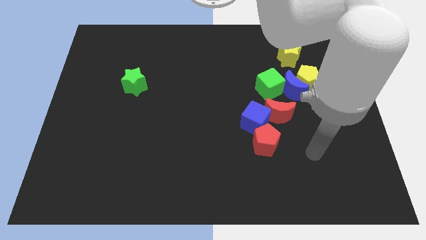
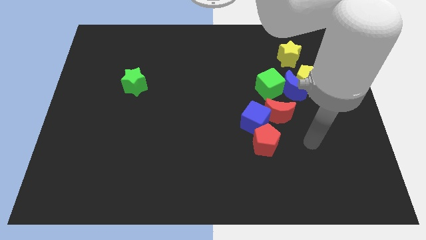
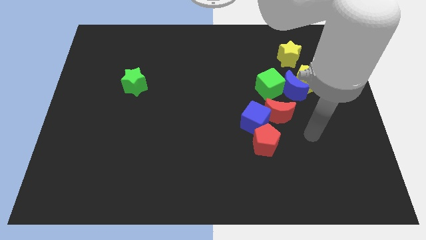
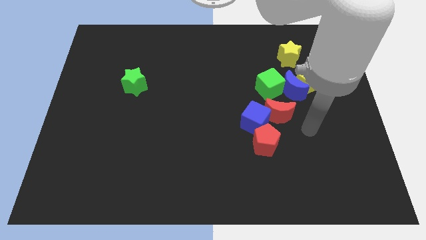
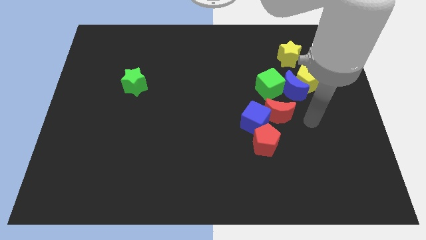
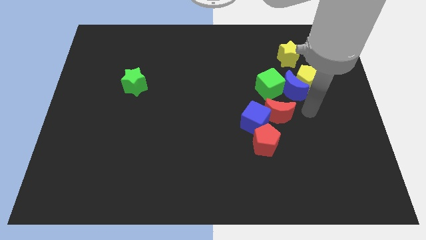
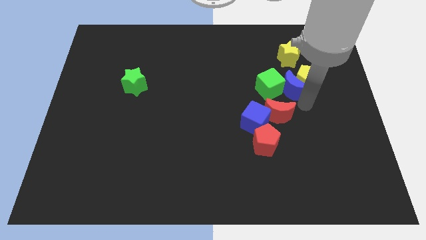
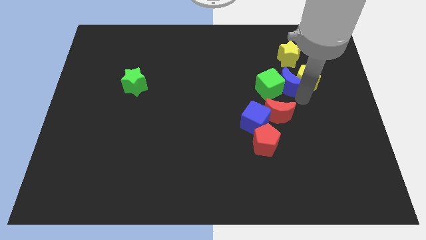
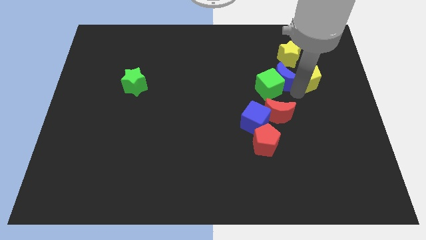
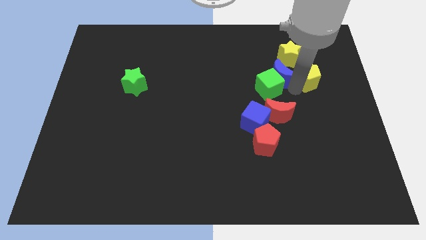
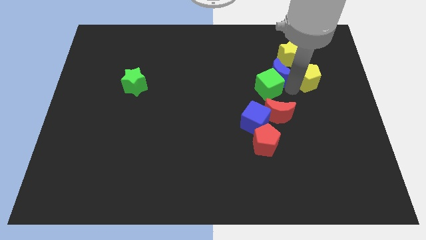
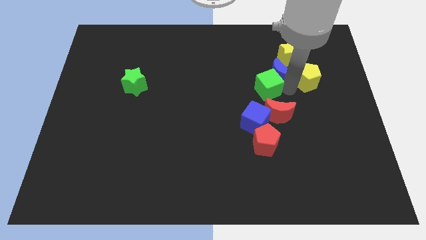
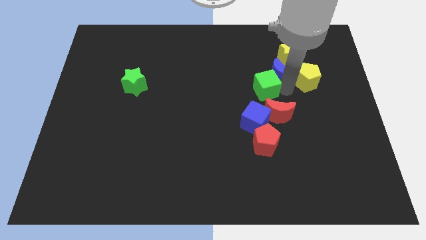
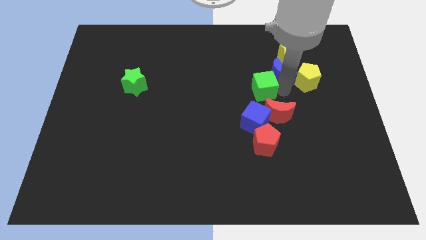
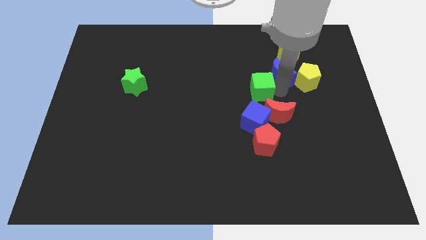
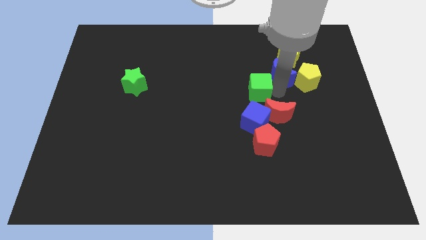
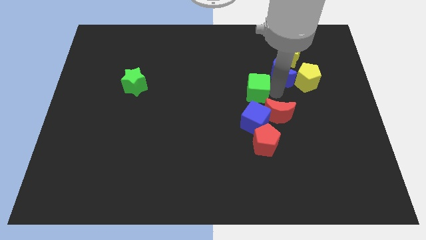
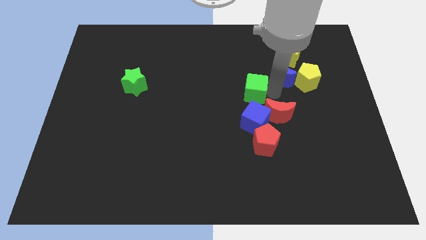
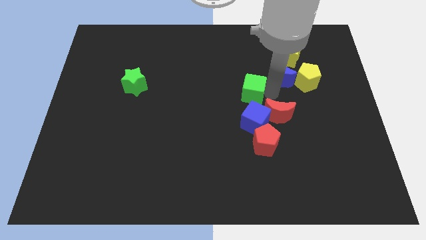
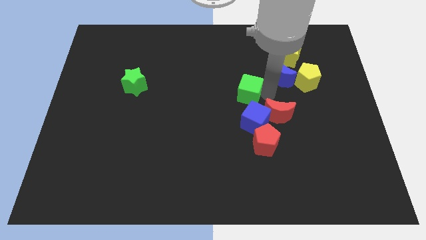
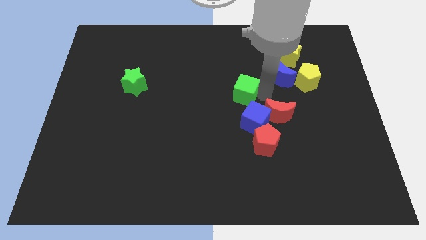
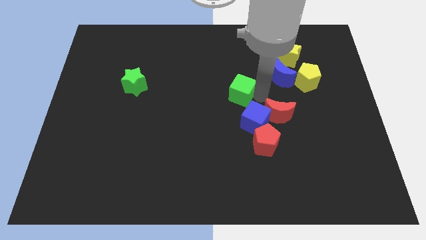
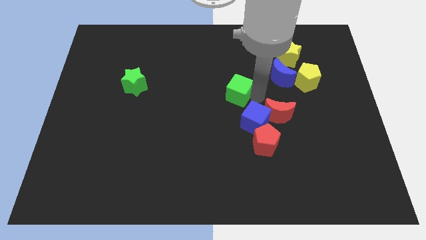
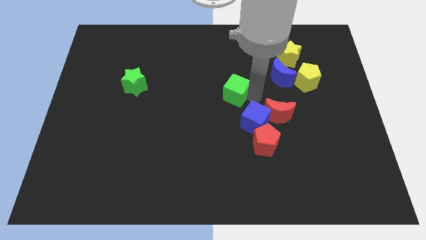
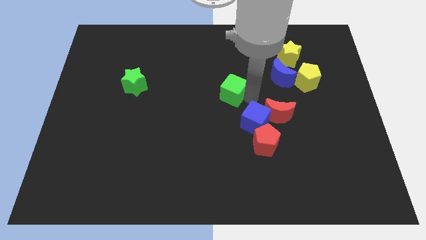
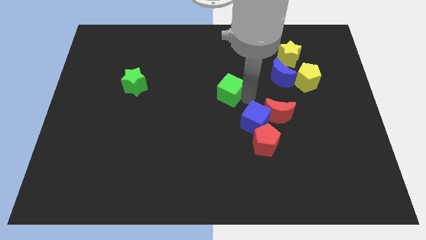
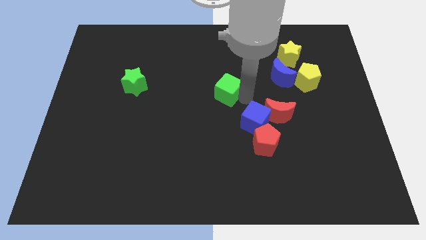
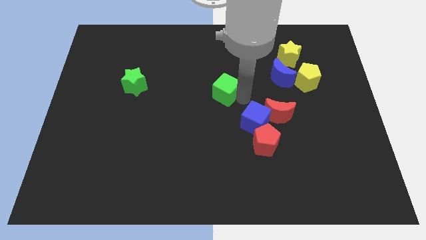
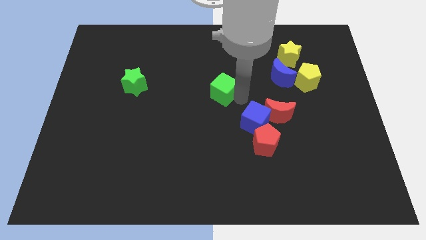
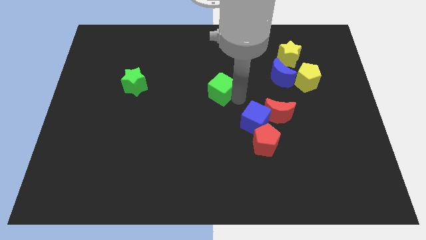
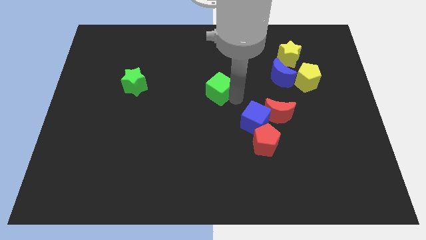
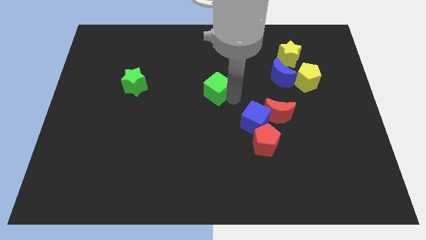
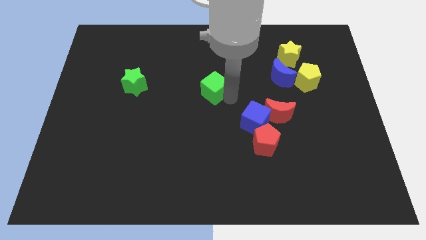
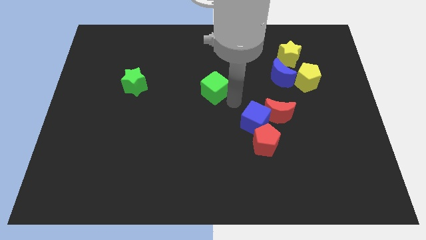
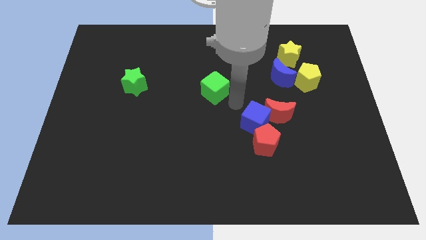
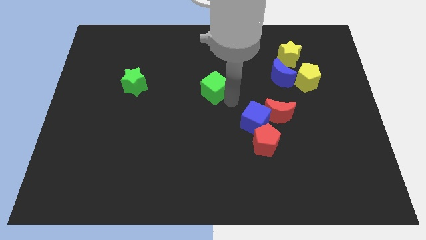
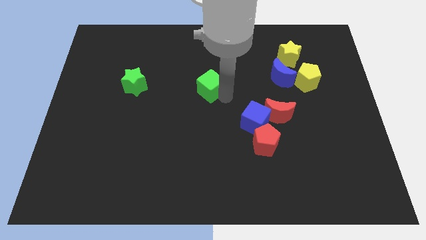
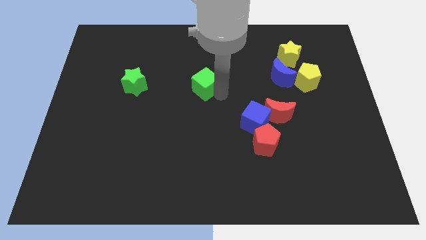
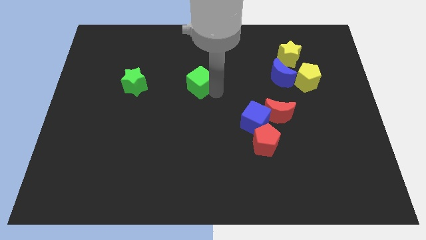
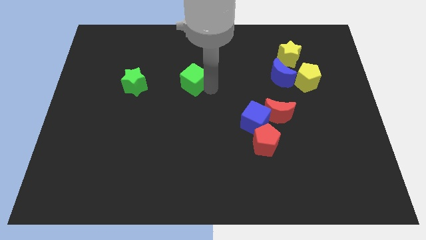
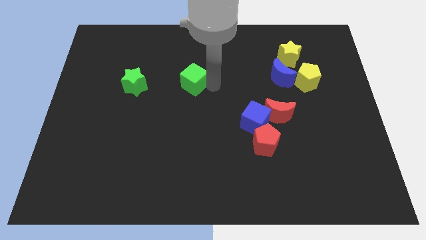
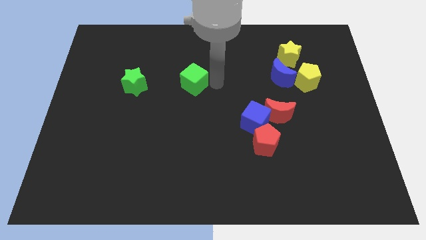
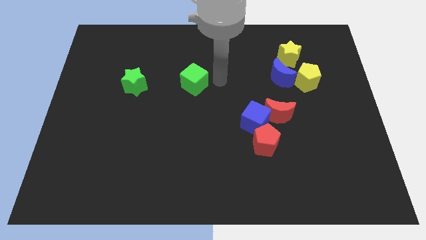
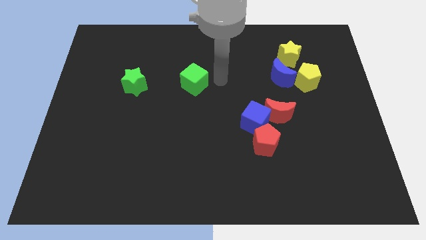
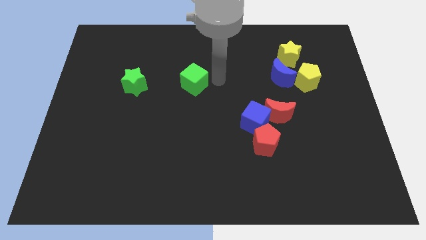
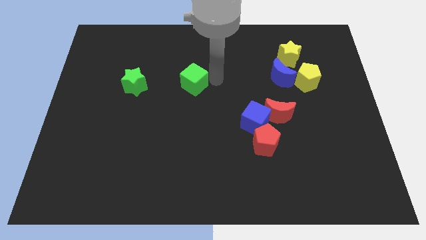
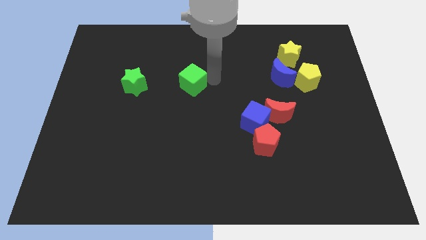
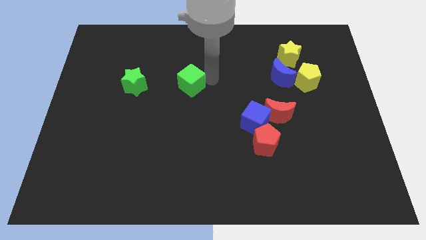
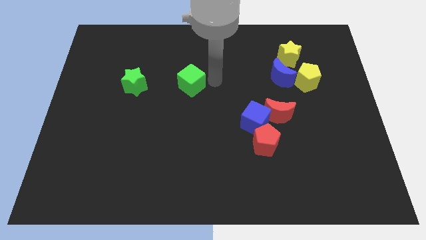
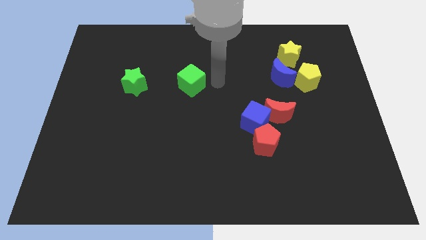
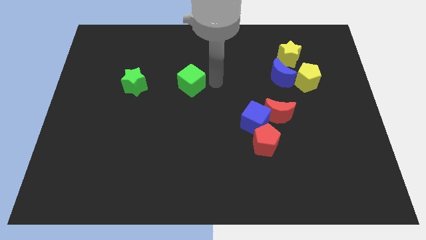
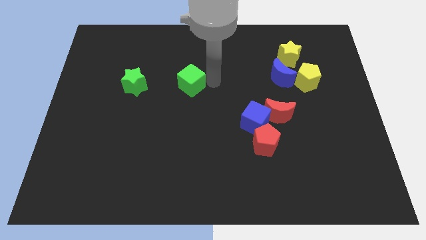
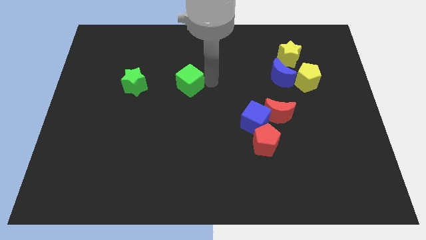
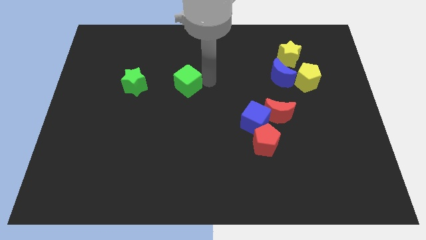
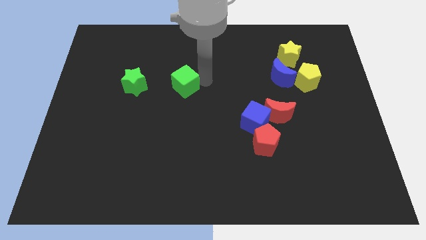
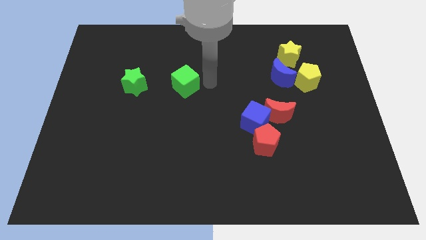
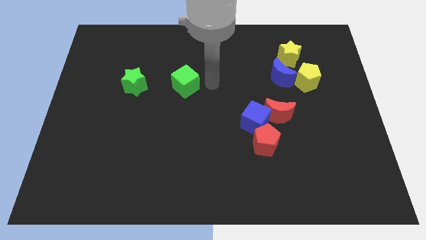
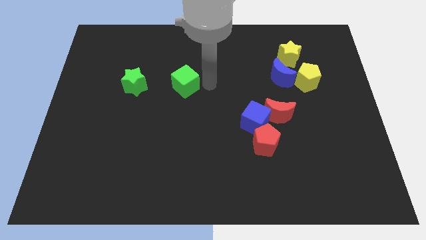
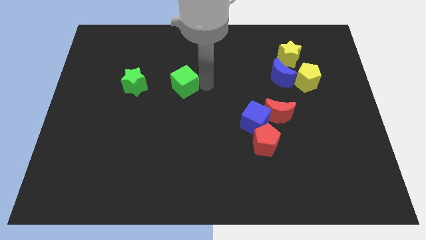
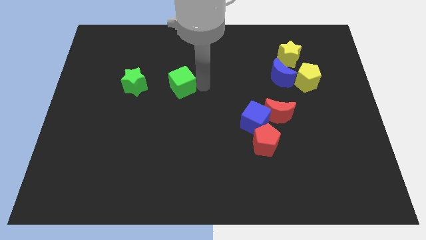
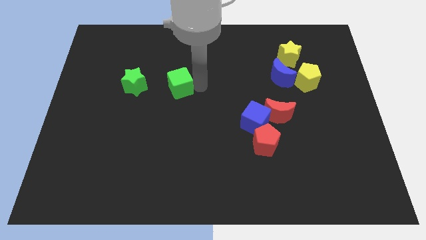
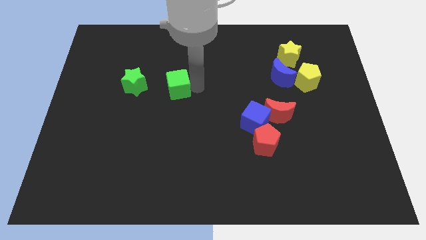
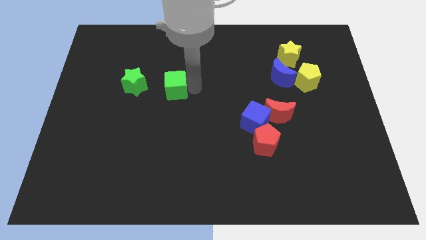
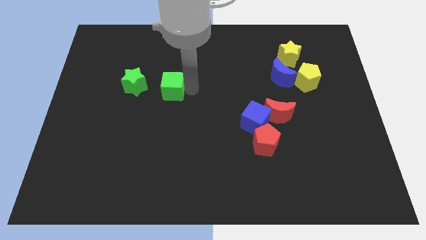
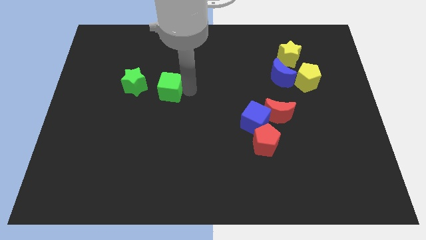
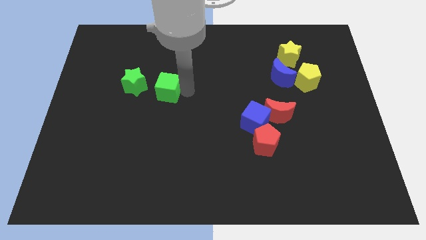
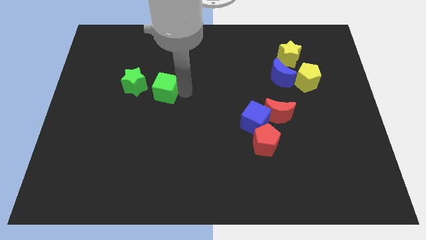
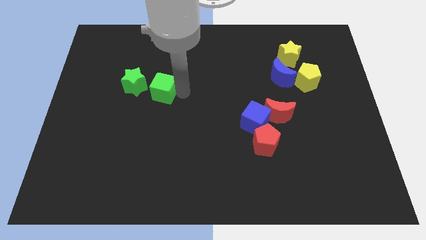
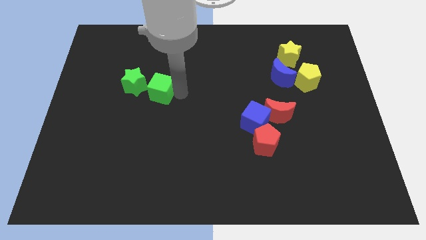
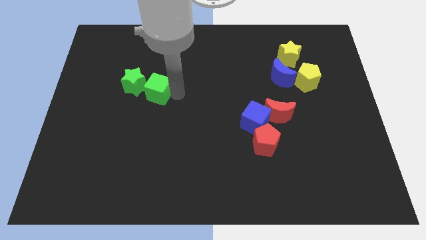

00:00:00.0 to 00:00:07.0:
move the green cube close to the green star
